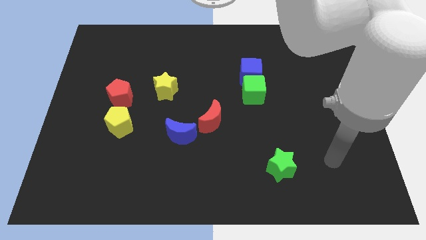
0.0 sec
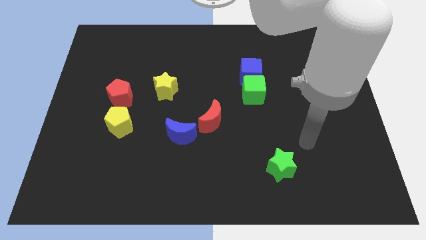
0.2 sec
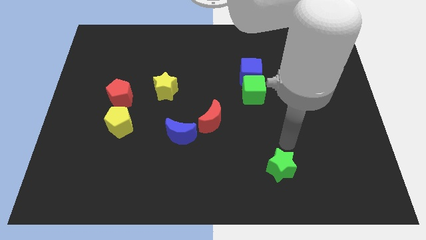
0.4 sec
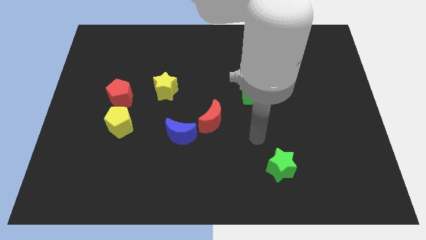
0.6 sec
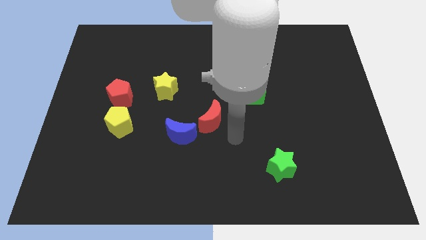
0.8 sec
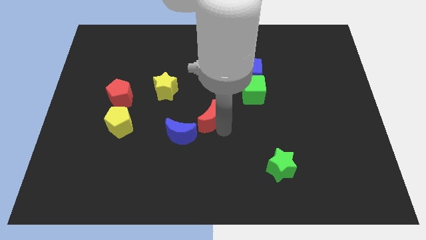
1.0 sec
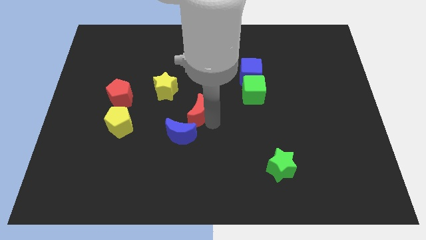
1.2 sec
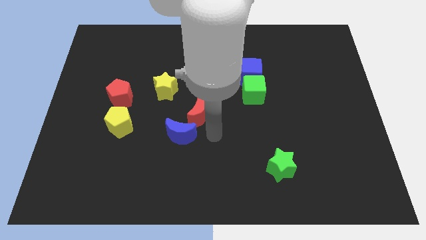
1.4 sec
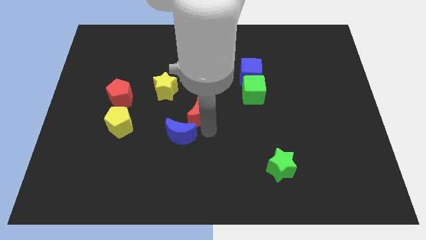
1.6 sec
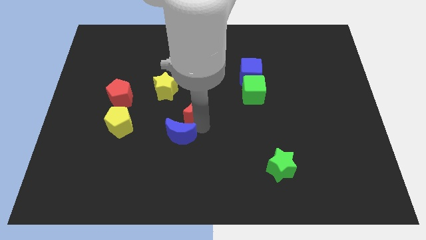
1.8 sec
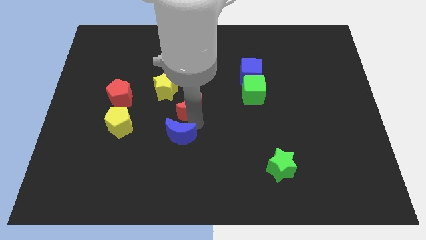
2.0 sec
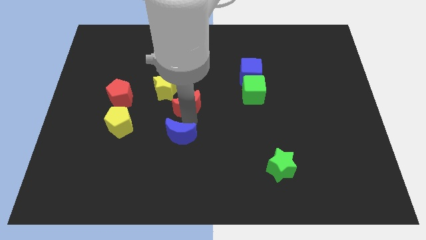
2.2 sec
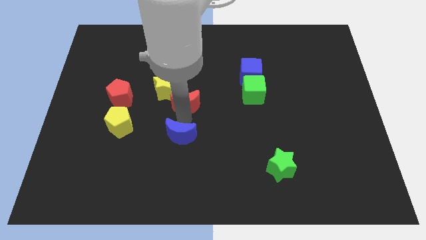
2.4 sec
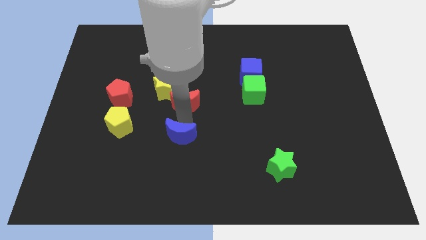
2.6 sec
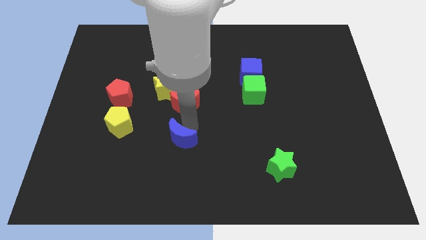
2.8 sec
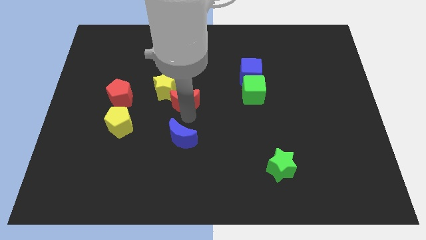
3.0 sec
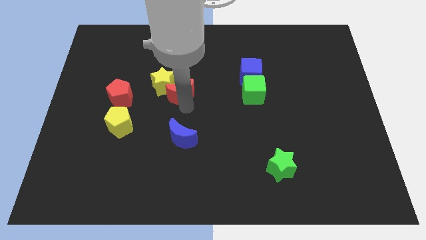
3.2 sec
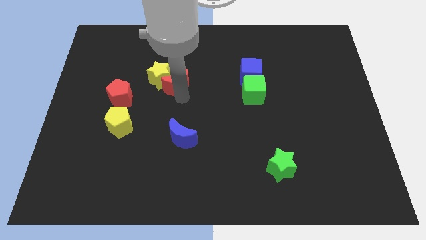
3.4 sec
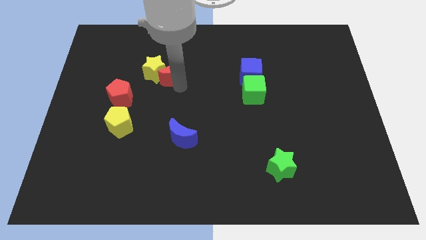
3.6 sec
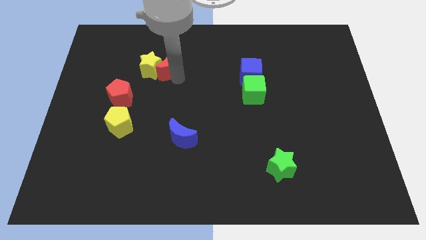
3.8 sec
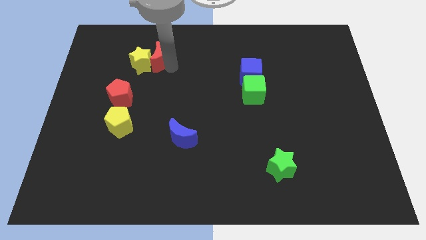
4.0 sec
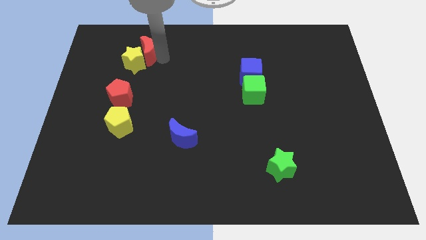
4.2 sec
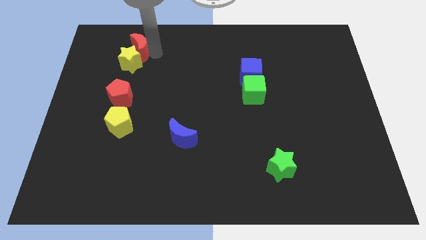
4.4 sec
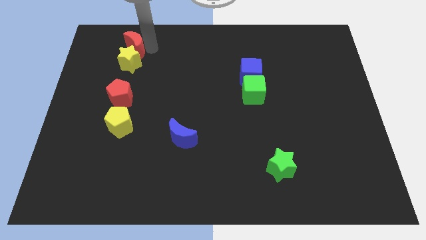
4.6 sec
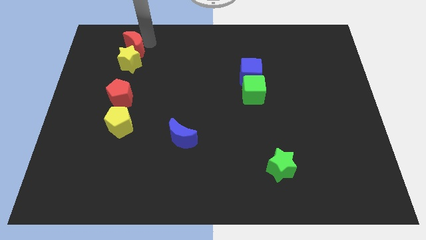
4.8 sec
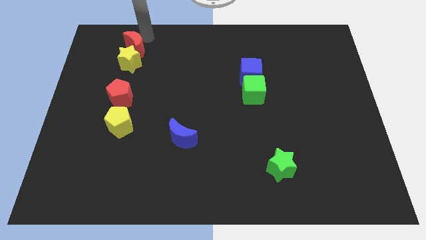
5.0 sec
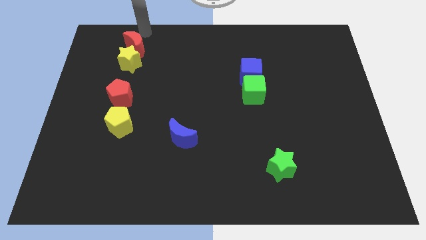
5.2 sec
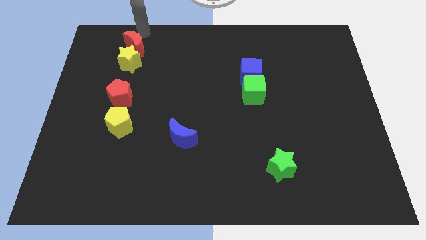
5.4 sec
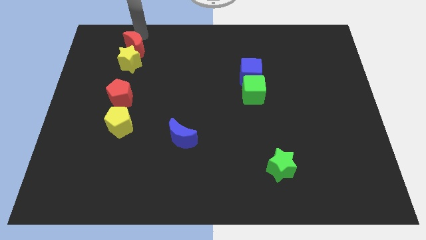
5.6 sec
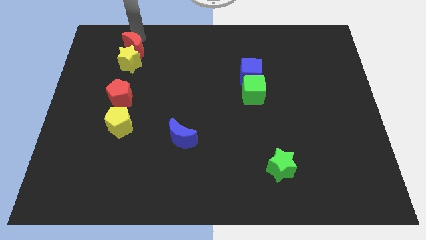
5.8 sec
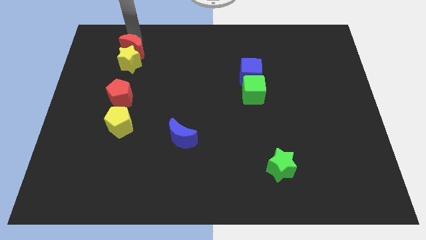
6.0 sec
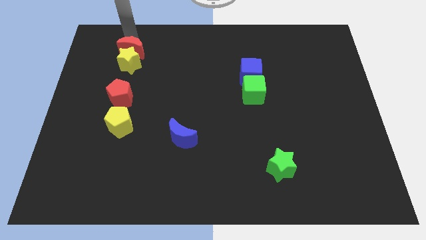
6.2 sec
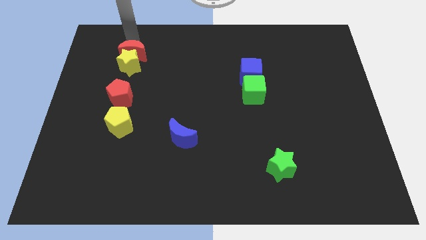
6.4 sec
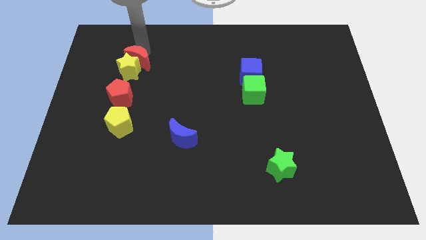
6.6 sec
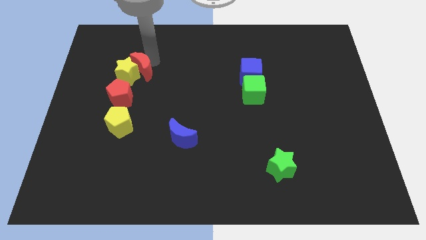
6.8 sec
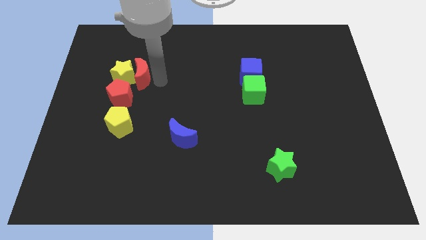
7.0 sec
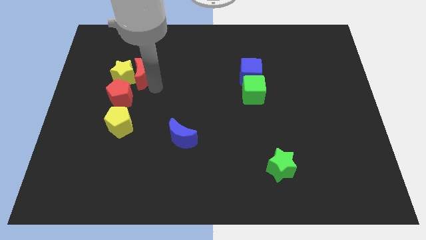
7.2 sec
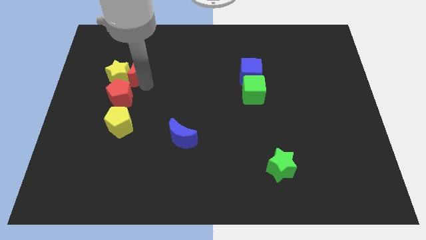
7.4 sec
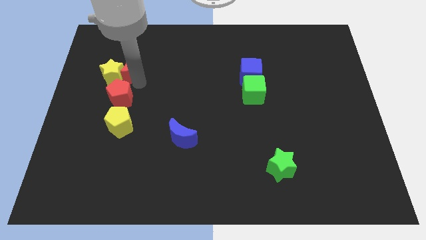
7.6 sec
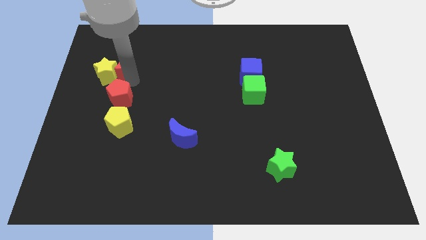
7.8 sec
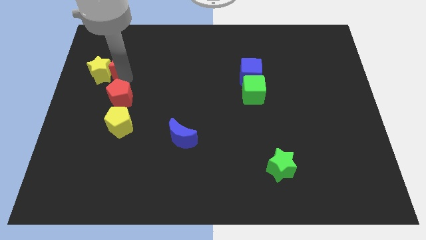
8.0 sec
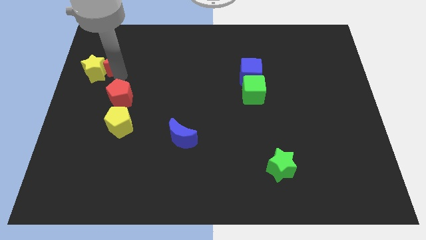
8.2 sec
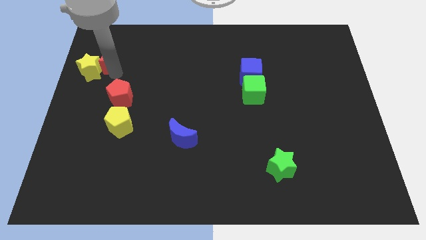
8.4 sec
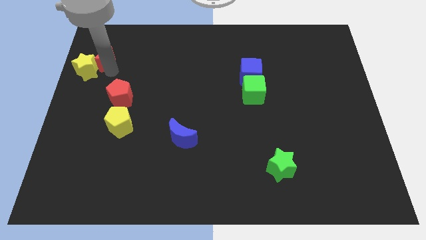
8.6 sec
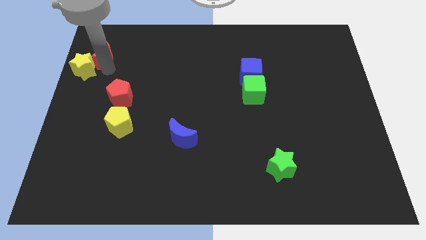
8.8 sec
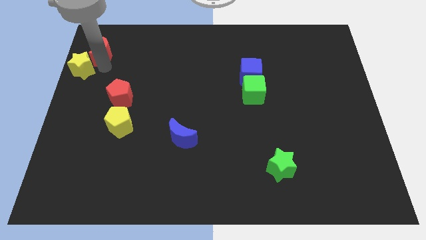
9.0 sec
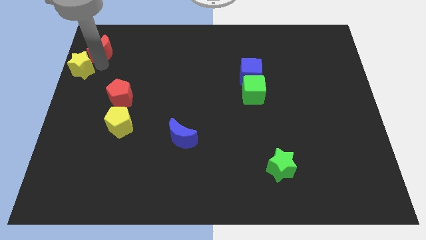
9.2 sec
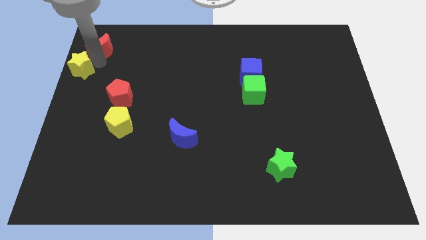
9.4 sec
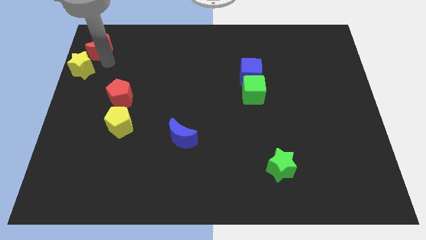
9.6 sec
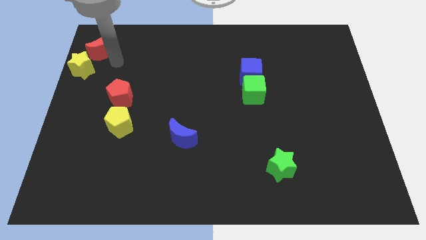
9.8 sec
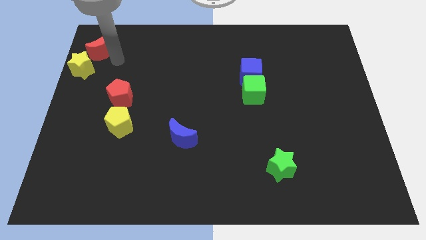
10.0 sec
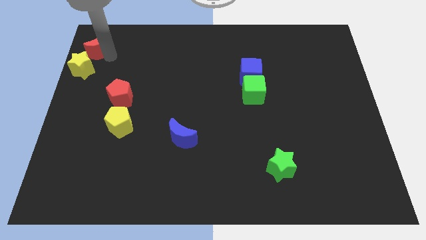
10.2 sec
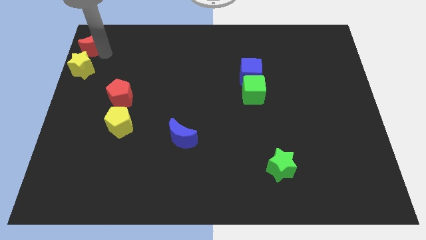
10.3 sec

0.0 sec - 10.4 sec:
push the red moon to the top left
